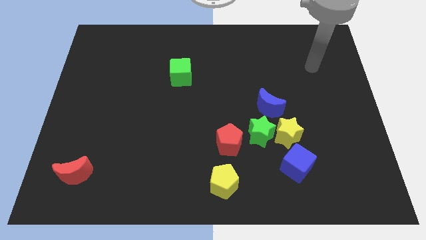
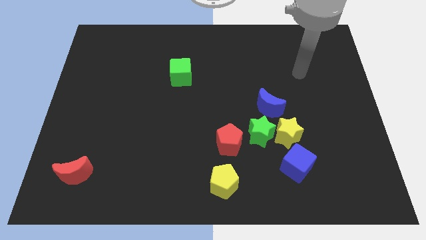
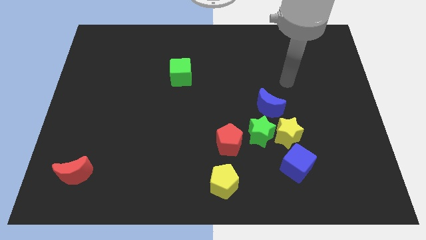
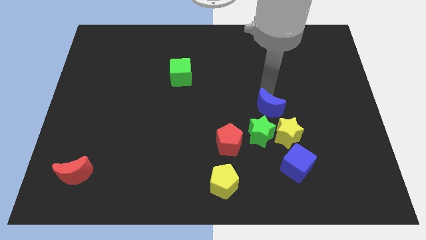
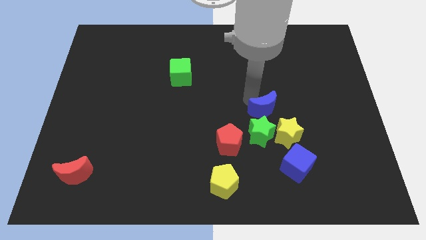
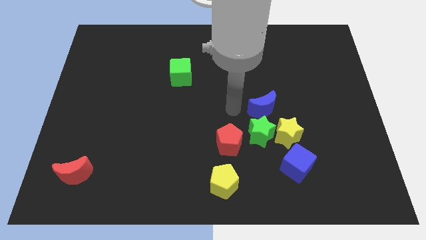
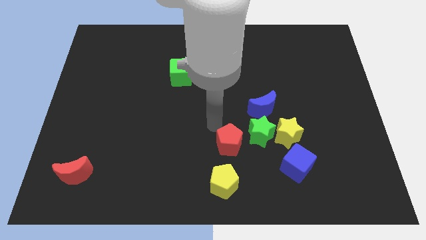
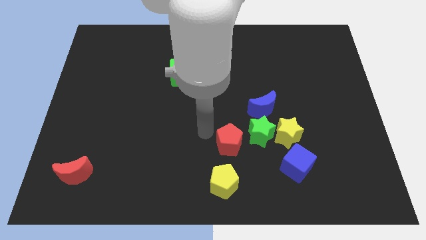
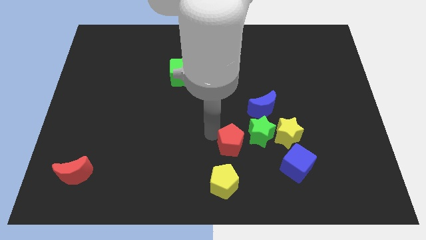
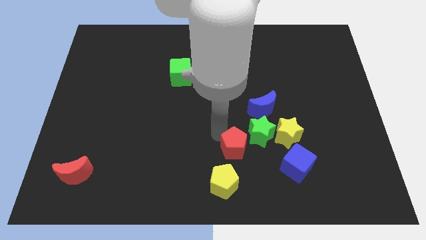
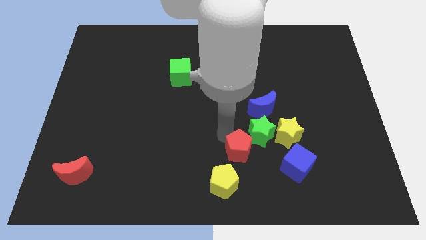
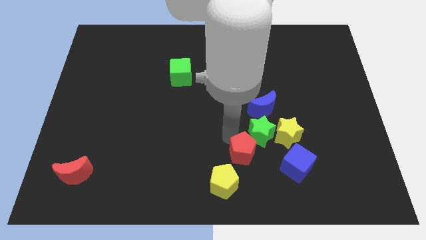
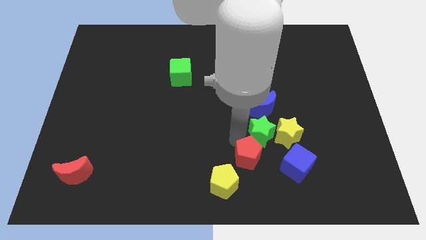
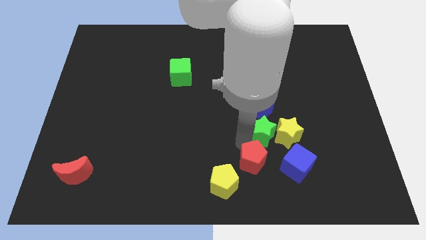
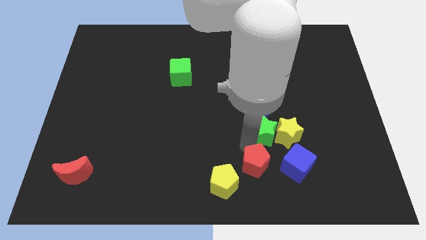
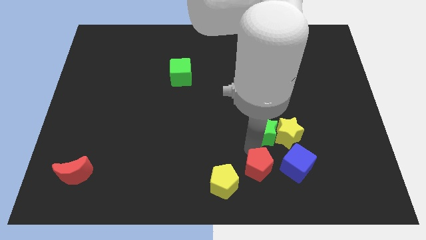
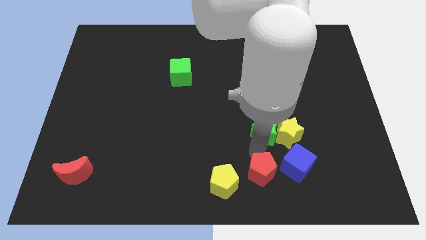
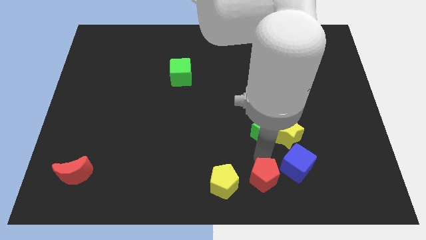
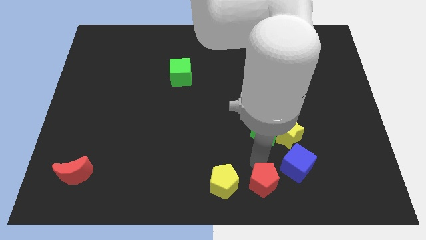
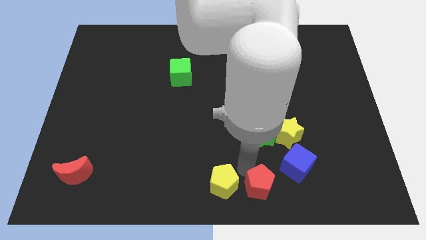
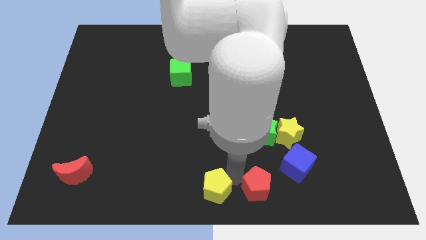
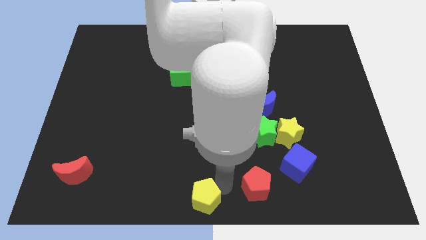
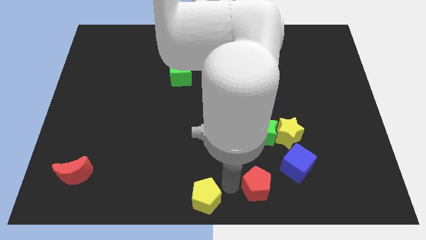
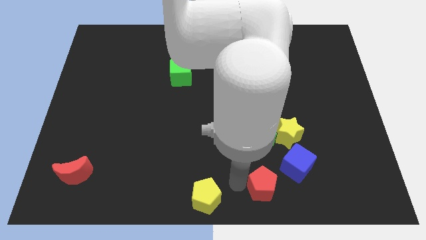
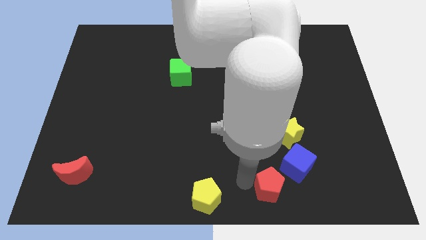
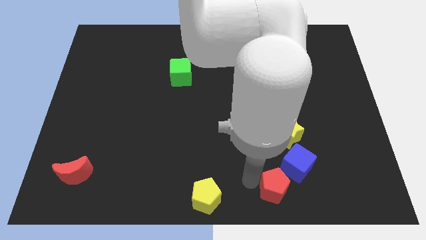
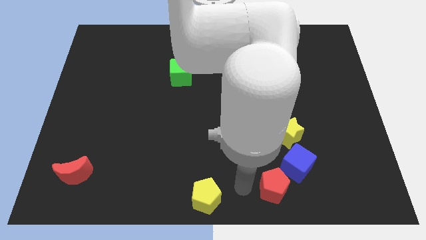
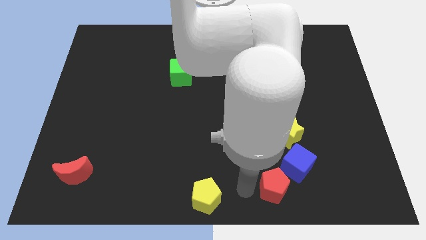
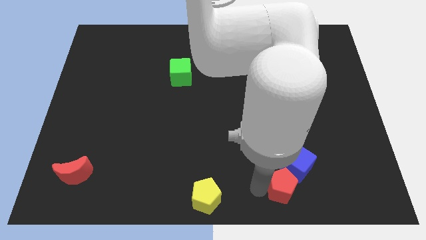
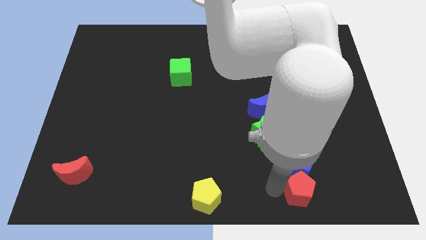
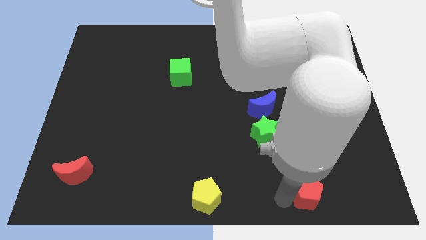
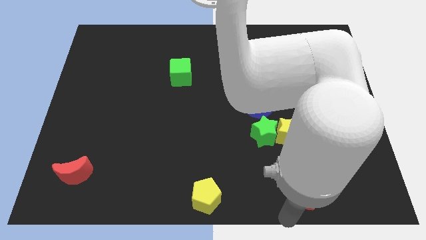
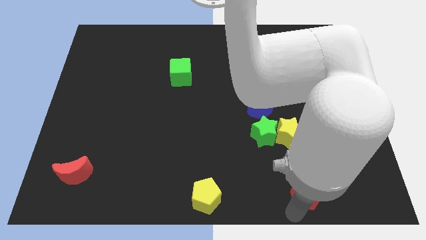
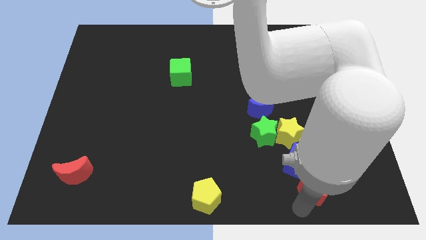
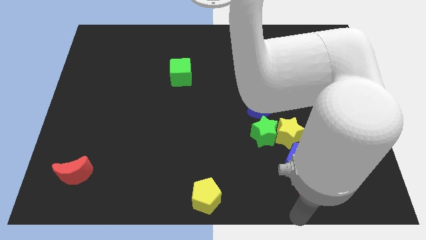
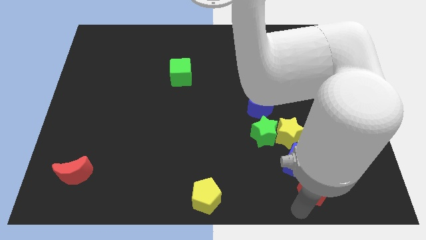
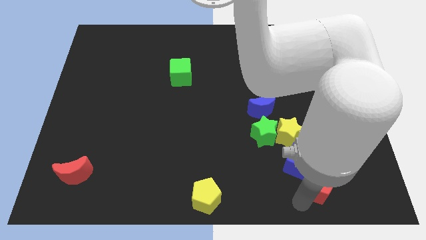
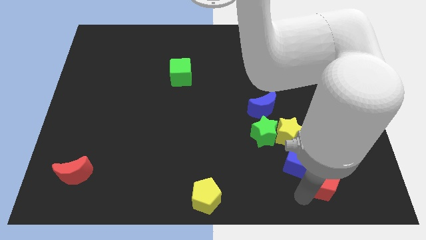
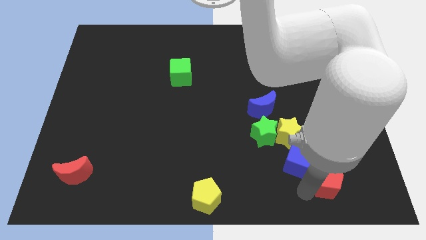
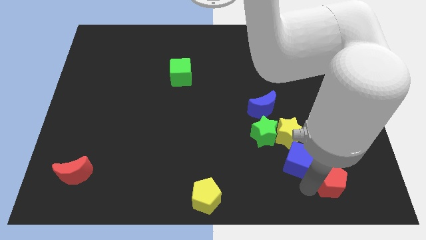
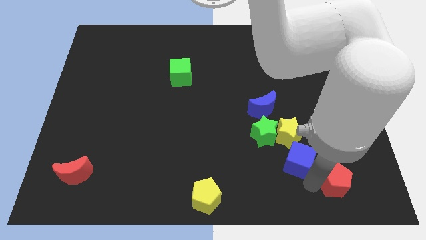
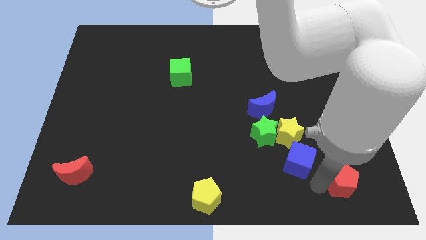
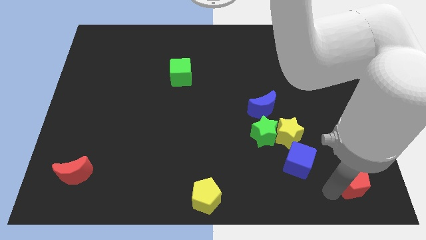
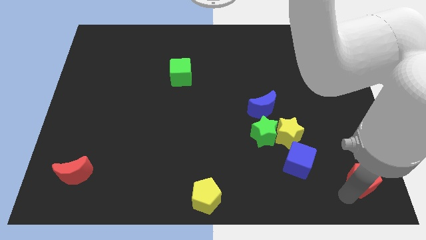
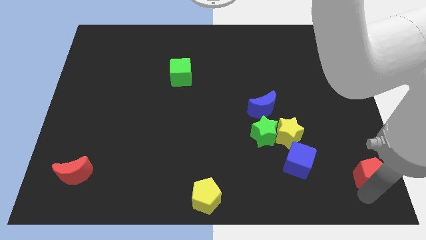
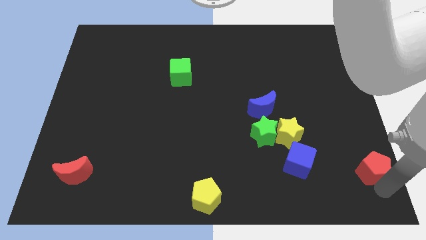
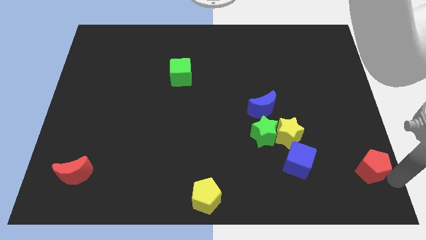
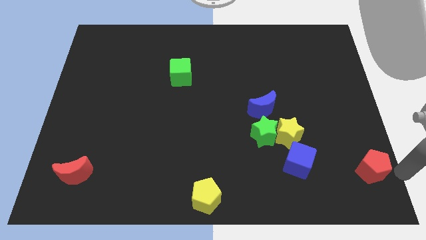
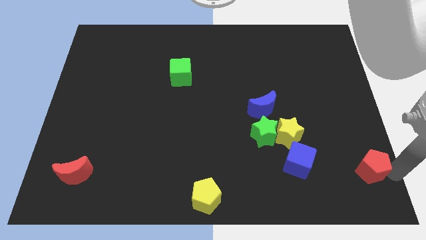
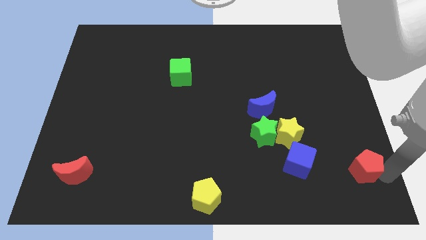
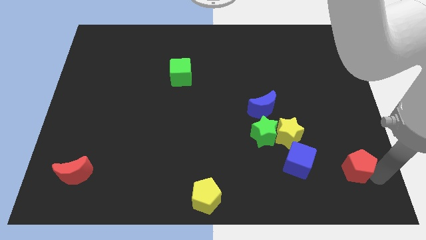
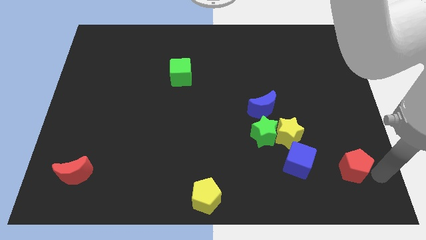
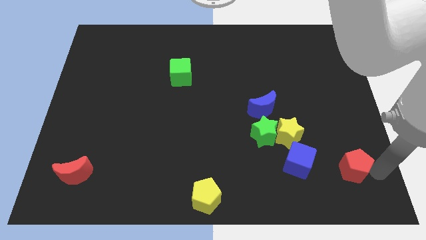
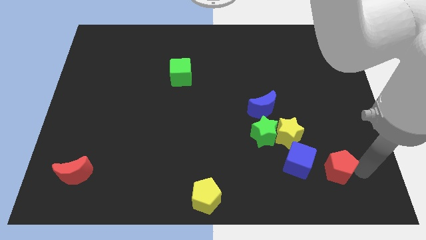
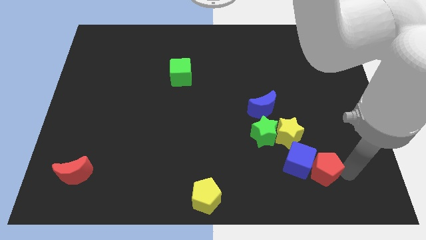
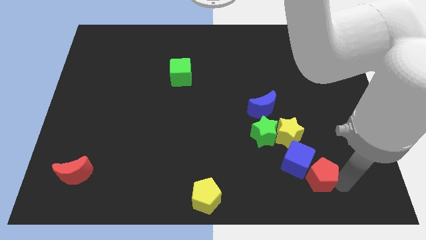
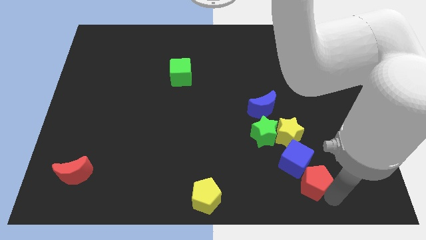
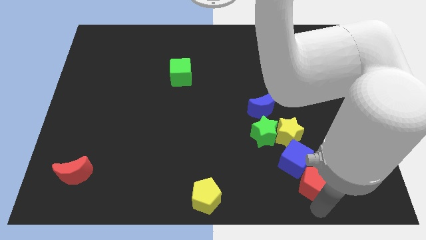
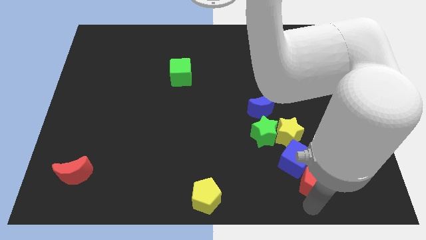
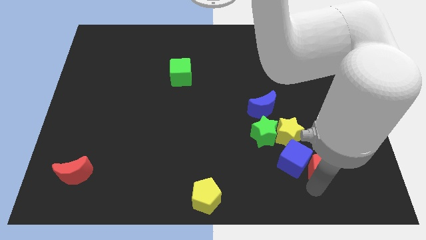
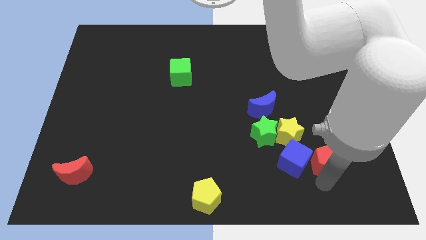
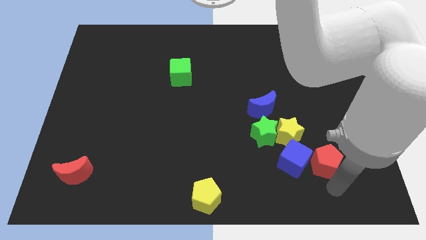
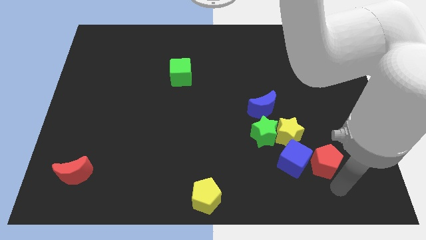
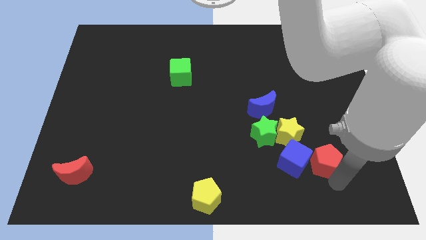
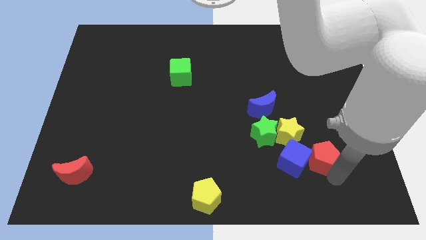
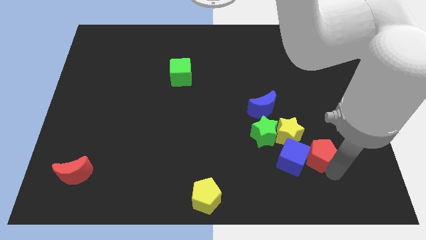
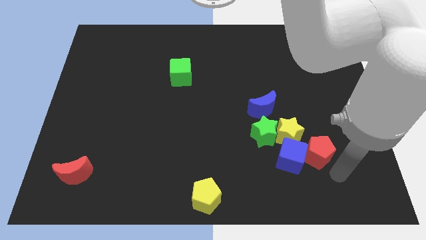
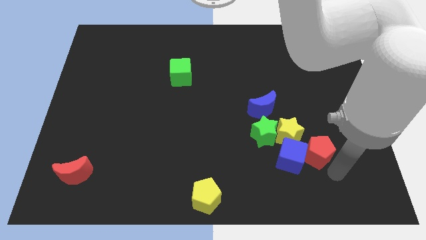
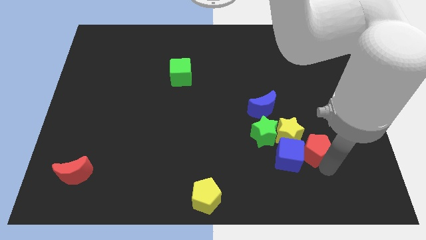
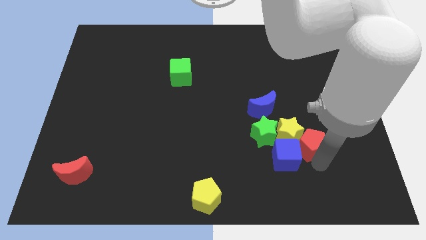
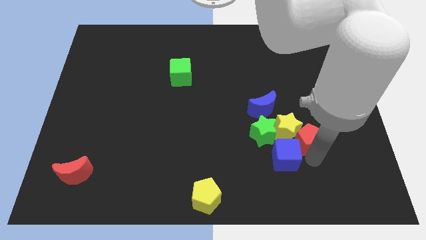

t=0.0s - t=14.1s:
push the red pentagon to the bottom right of the blue moon
